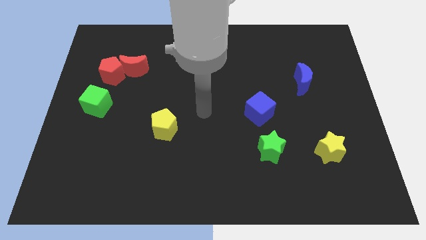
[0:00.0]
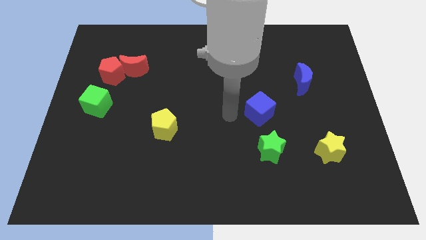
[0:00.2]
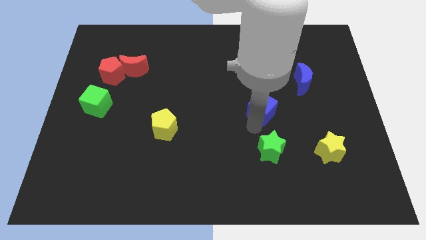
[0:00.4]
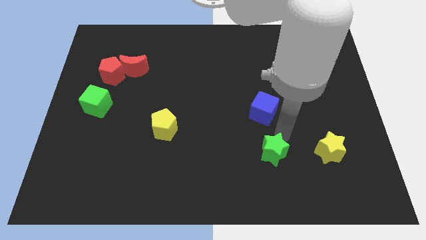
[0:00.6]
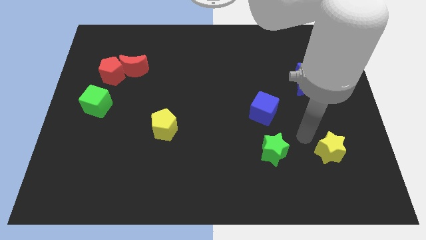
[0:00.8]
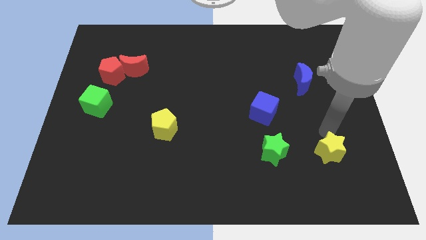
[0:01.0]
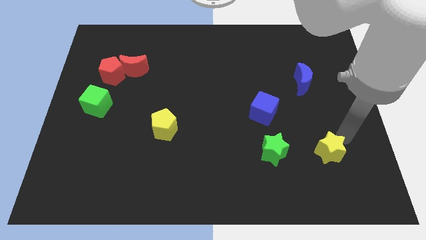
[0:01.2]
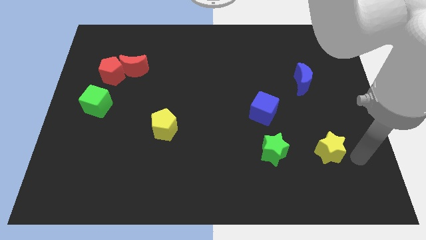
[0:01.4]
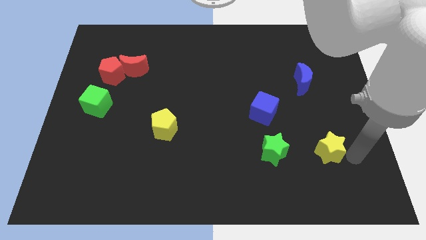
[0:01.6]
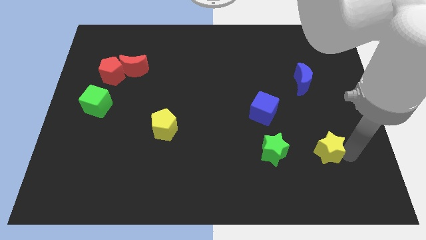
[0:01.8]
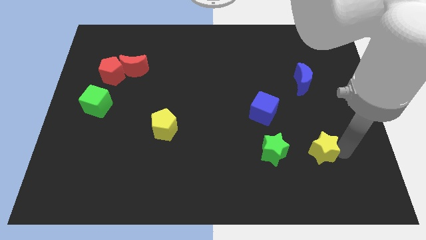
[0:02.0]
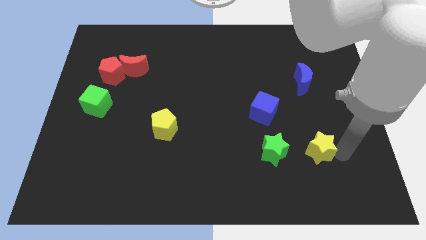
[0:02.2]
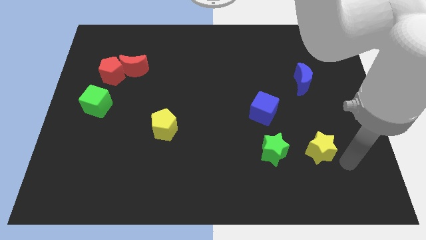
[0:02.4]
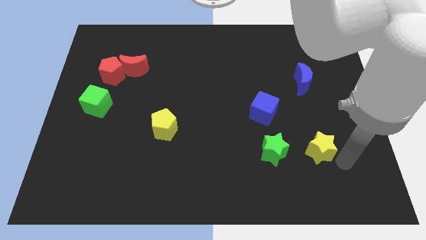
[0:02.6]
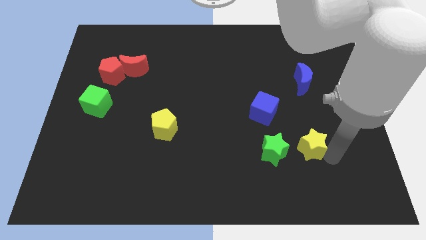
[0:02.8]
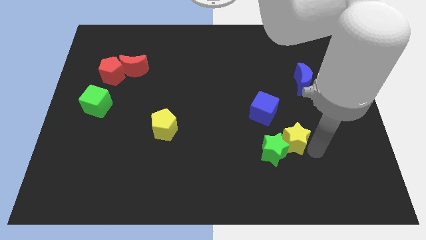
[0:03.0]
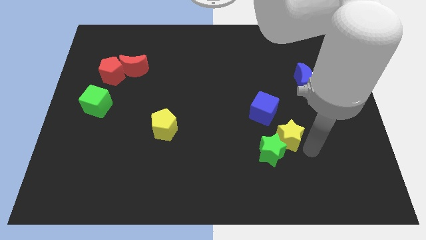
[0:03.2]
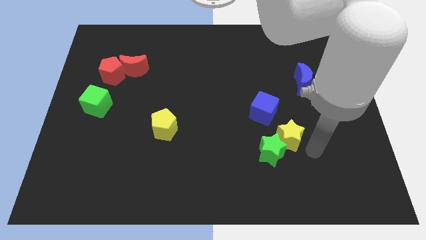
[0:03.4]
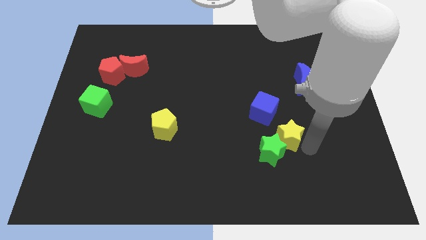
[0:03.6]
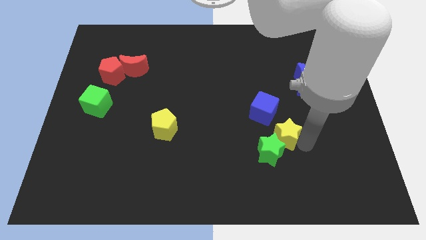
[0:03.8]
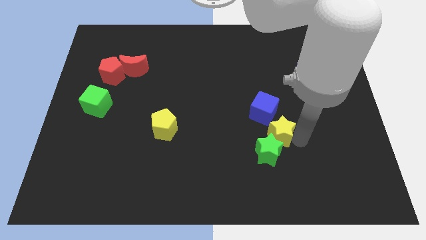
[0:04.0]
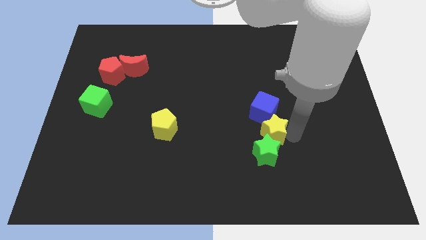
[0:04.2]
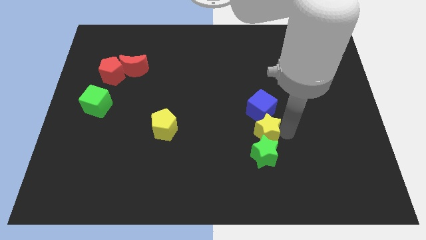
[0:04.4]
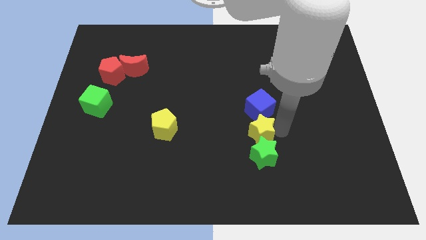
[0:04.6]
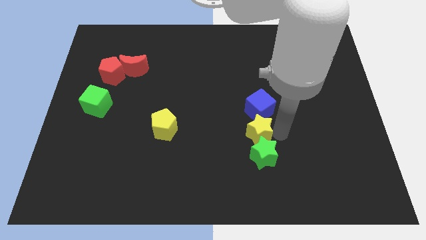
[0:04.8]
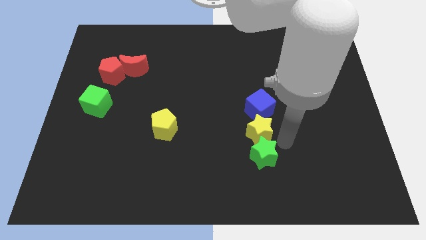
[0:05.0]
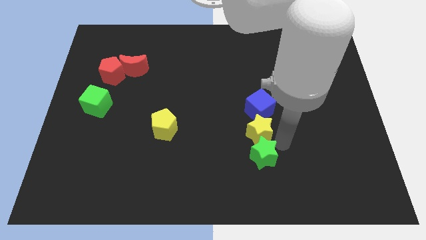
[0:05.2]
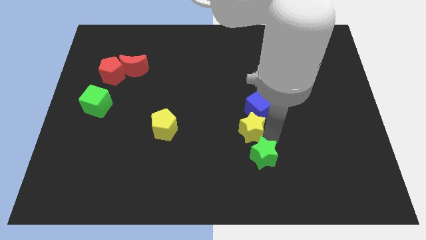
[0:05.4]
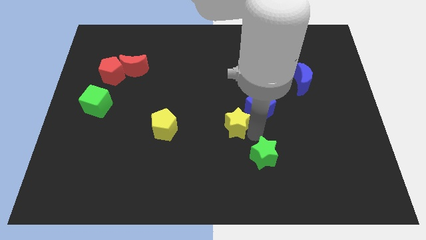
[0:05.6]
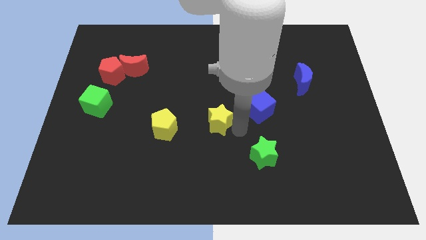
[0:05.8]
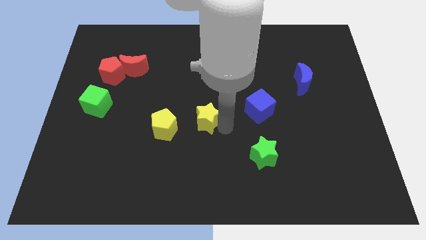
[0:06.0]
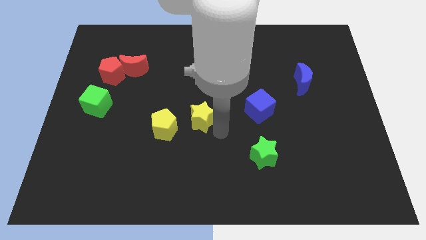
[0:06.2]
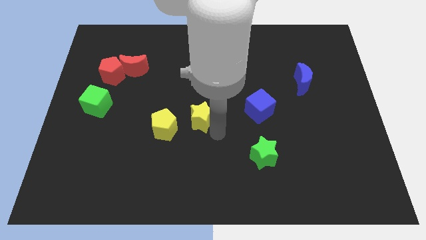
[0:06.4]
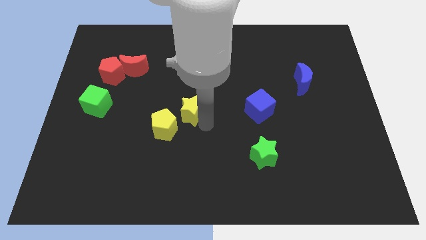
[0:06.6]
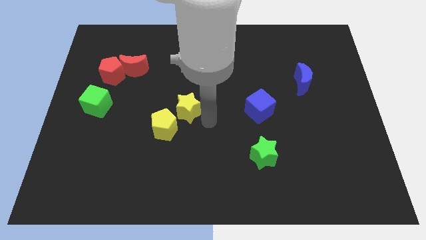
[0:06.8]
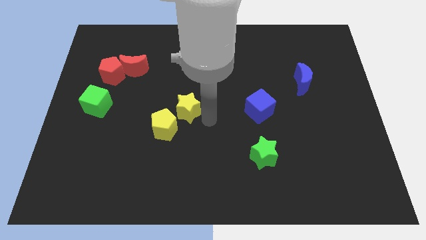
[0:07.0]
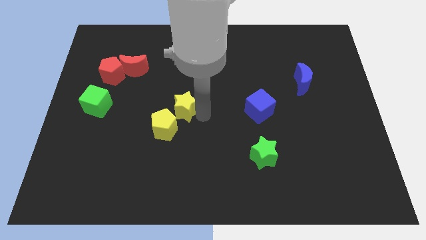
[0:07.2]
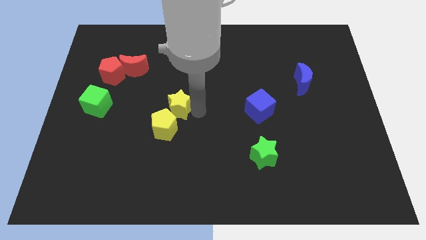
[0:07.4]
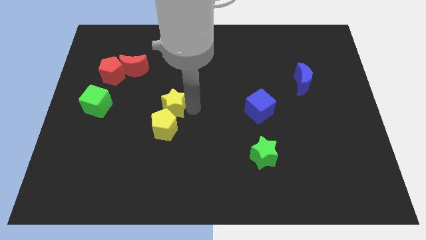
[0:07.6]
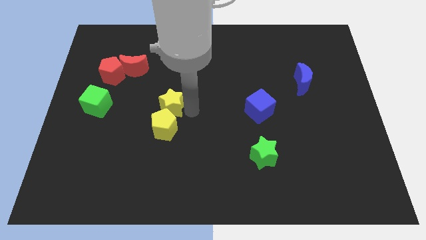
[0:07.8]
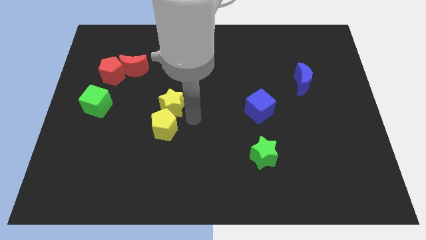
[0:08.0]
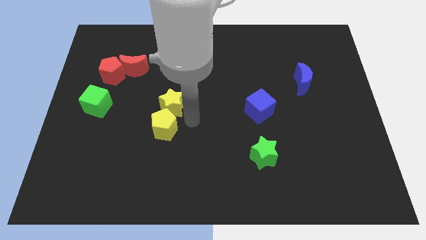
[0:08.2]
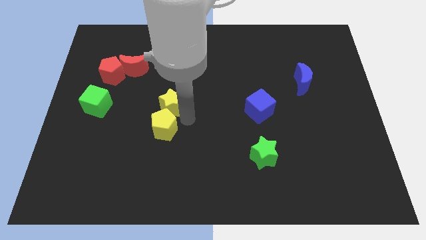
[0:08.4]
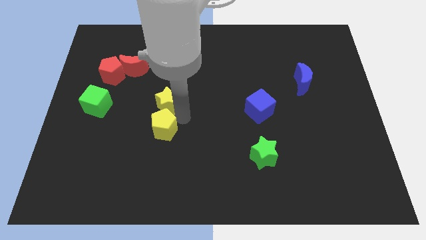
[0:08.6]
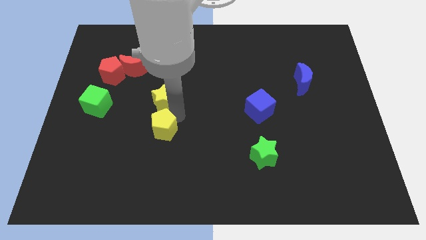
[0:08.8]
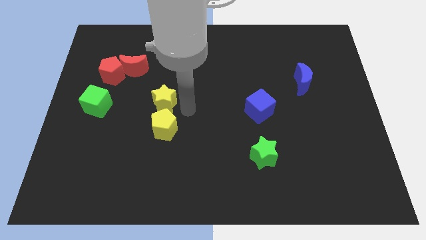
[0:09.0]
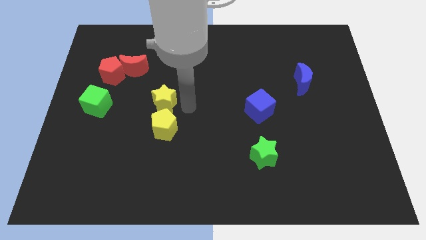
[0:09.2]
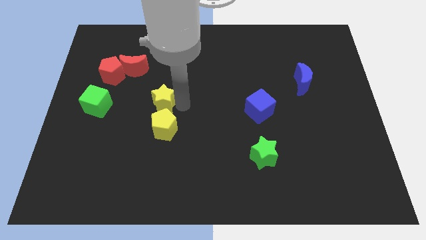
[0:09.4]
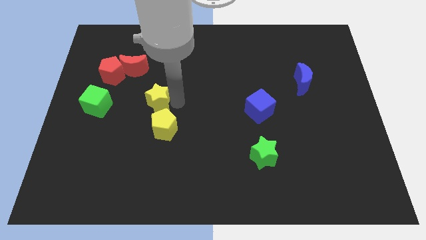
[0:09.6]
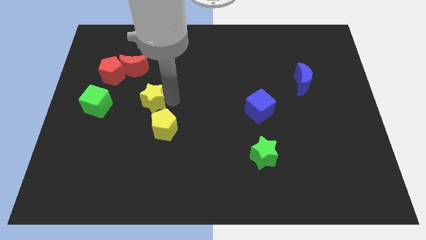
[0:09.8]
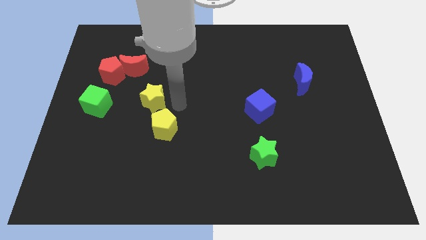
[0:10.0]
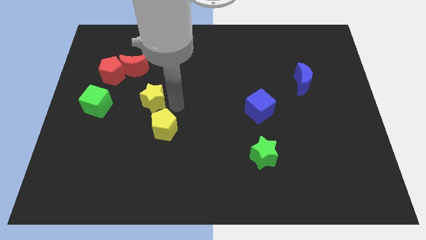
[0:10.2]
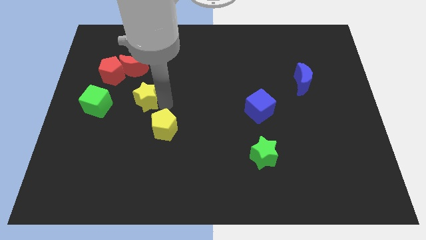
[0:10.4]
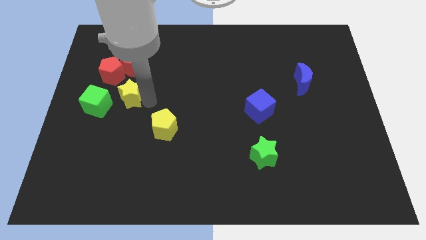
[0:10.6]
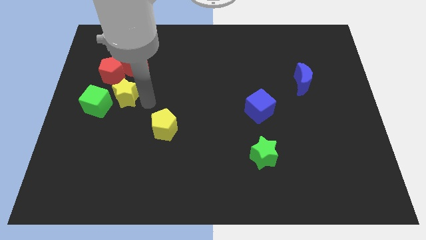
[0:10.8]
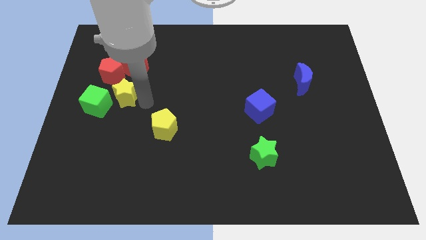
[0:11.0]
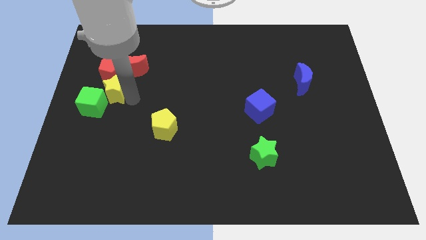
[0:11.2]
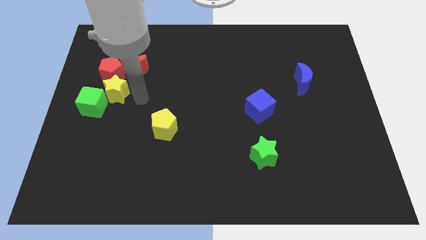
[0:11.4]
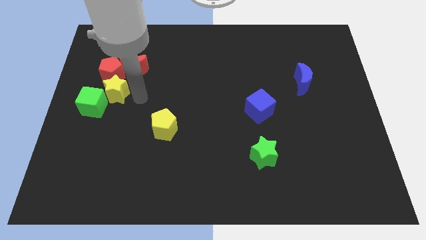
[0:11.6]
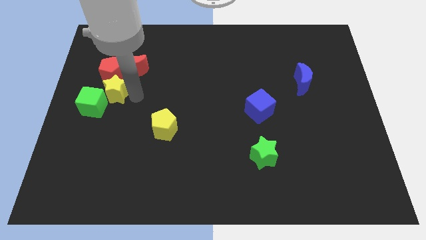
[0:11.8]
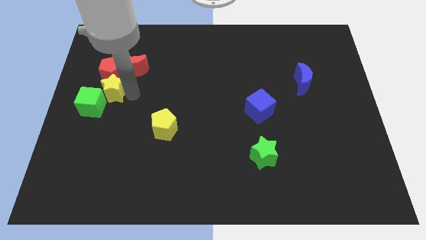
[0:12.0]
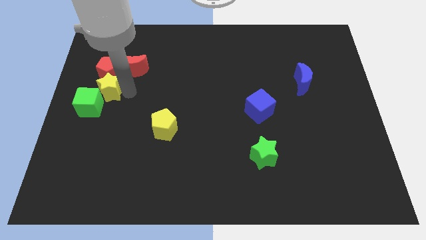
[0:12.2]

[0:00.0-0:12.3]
push the yellow star to the center left

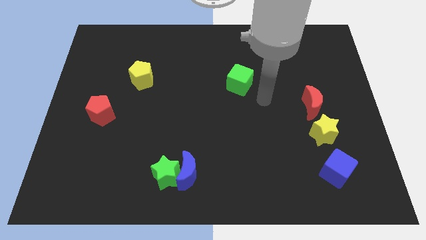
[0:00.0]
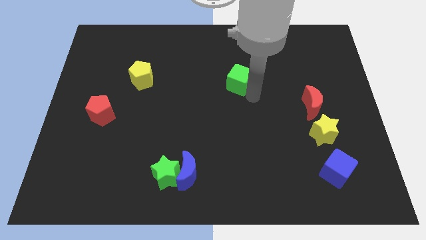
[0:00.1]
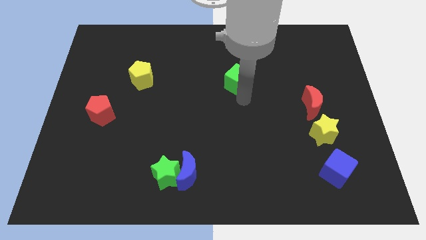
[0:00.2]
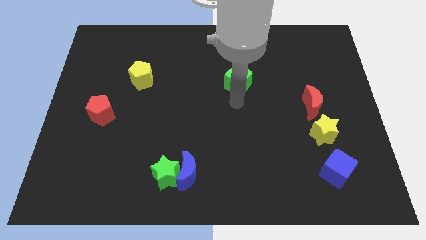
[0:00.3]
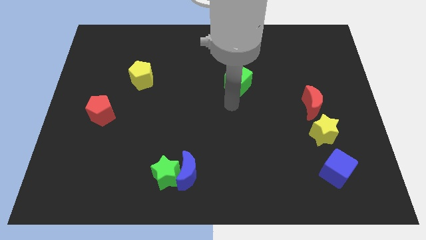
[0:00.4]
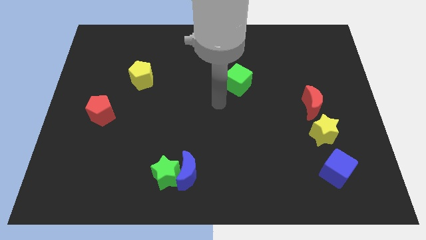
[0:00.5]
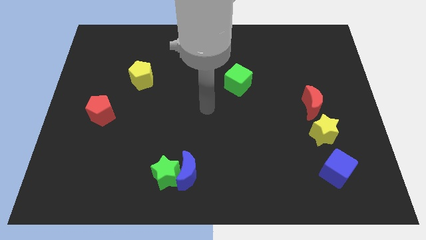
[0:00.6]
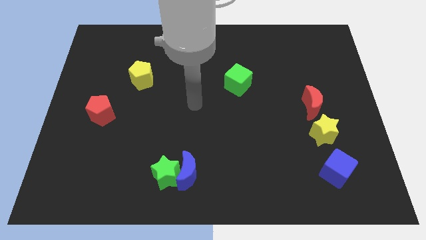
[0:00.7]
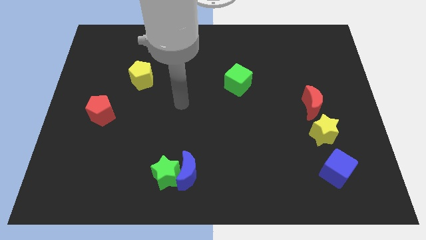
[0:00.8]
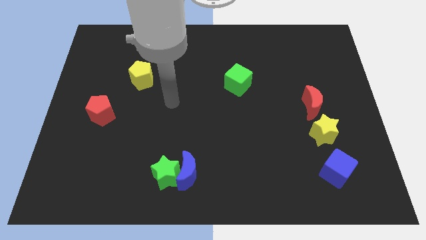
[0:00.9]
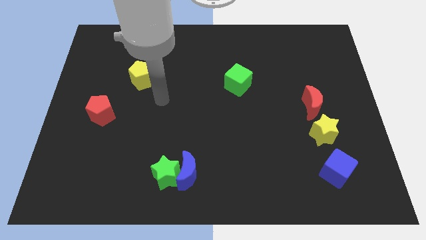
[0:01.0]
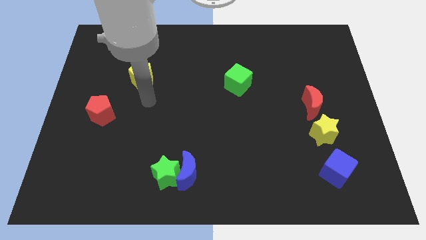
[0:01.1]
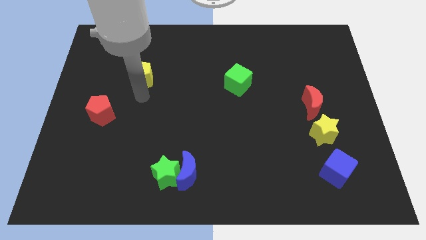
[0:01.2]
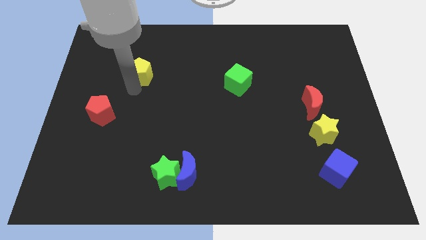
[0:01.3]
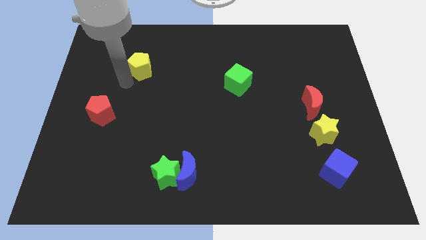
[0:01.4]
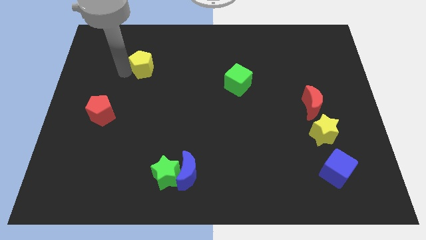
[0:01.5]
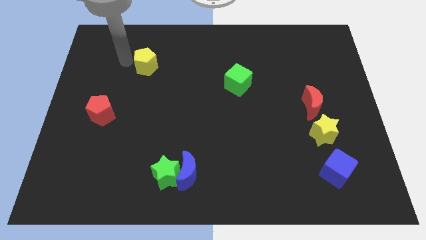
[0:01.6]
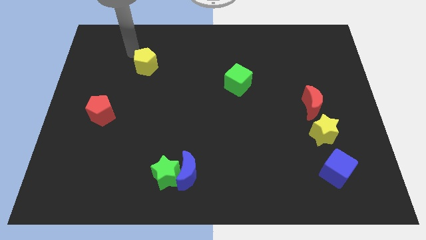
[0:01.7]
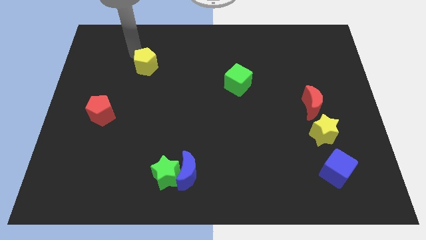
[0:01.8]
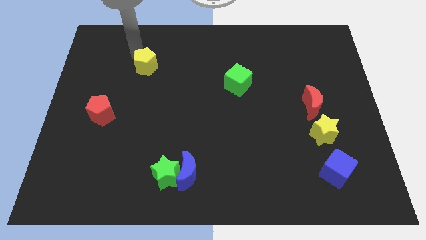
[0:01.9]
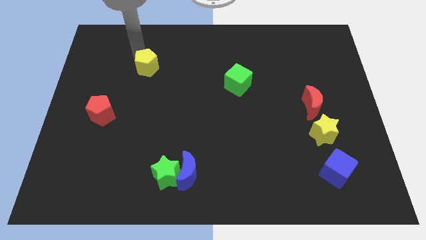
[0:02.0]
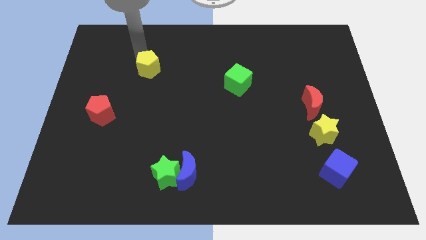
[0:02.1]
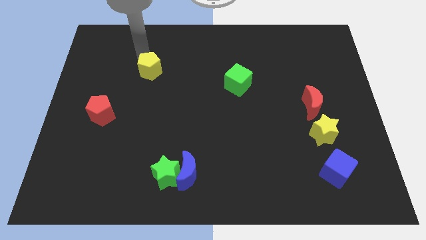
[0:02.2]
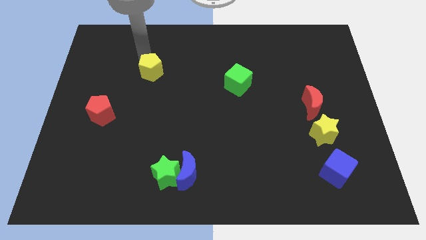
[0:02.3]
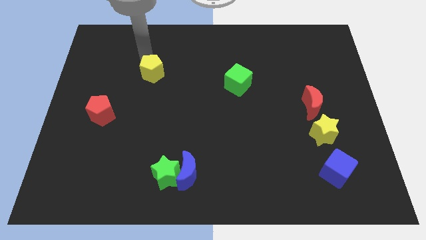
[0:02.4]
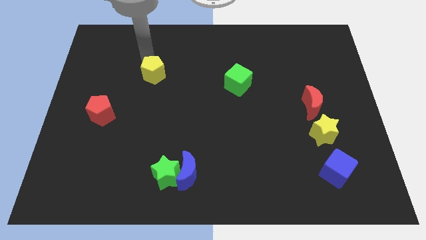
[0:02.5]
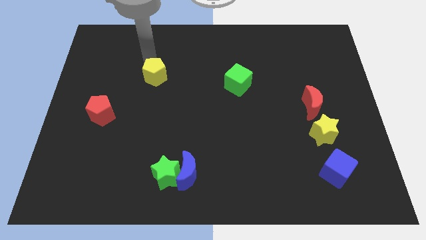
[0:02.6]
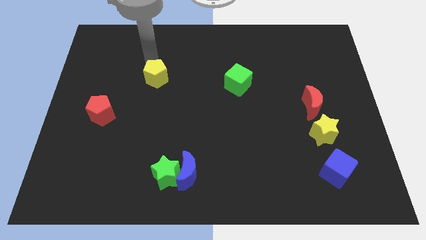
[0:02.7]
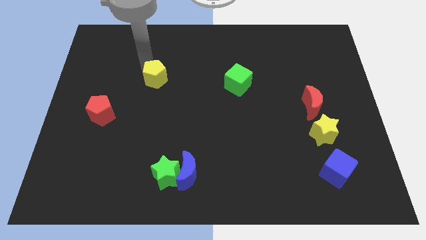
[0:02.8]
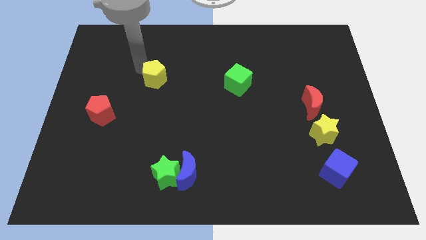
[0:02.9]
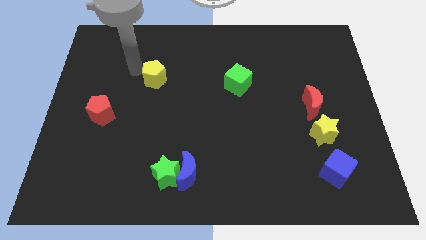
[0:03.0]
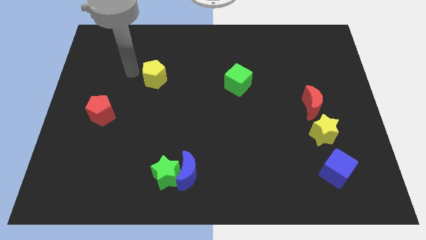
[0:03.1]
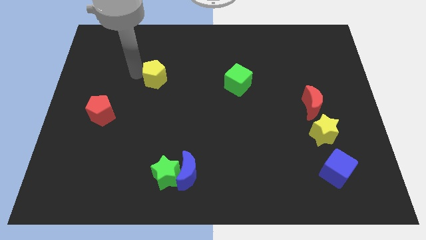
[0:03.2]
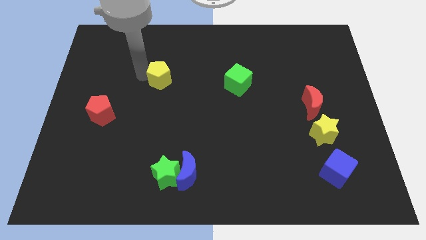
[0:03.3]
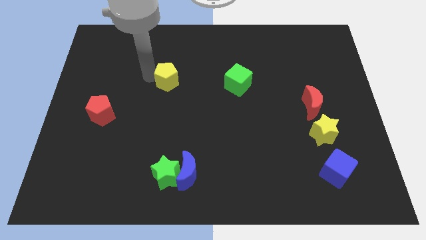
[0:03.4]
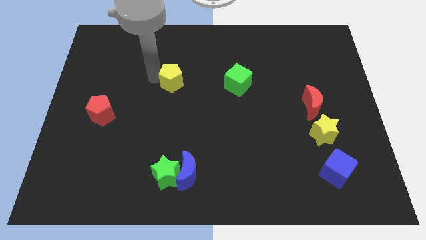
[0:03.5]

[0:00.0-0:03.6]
move the yellow pentagon to the center
